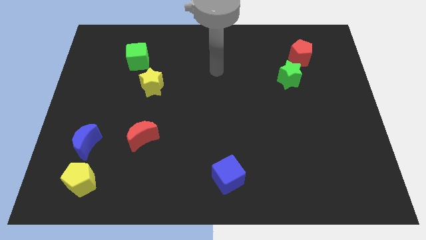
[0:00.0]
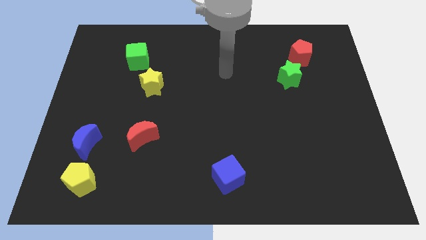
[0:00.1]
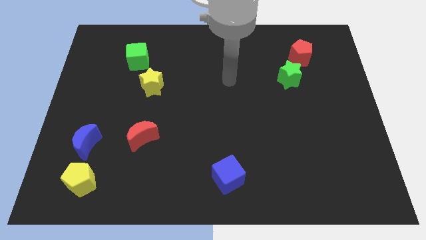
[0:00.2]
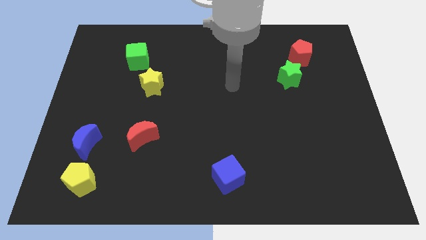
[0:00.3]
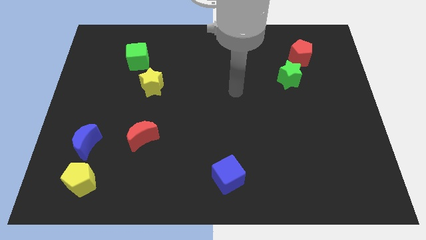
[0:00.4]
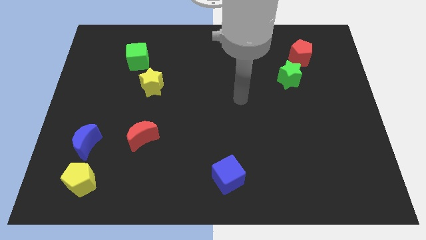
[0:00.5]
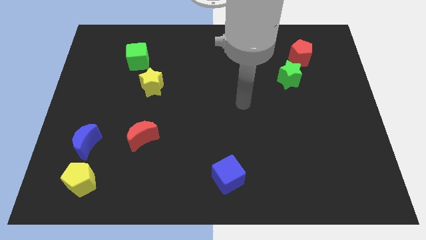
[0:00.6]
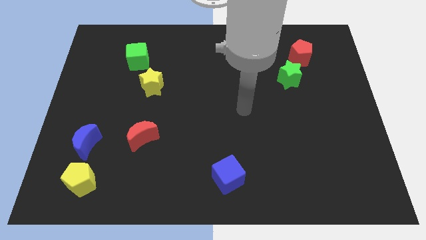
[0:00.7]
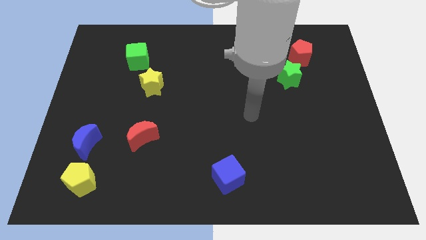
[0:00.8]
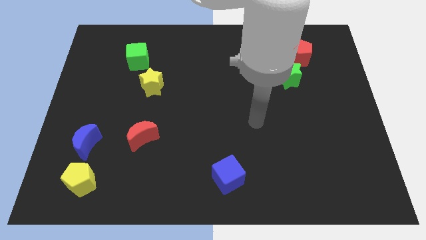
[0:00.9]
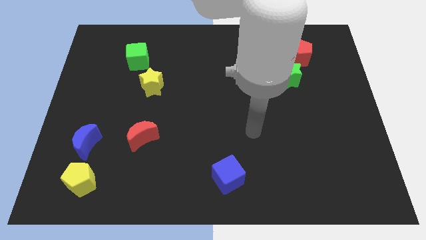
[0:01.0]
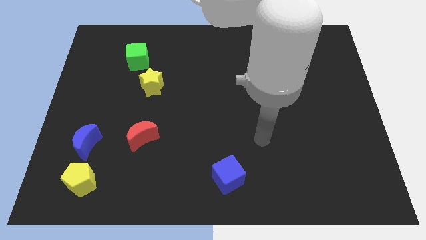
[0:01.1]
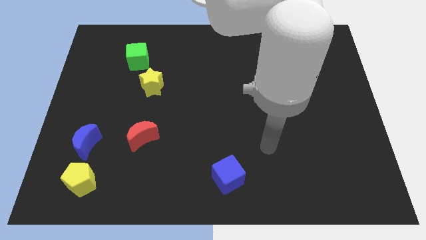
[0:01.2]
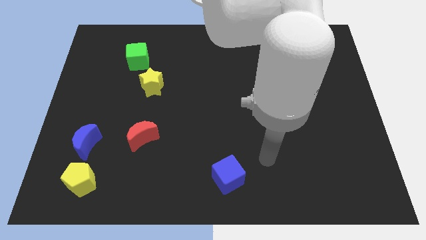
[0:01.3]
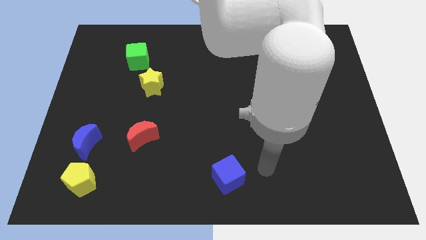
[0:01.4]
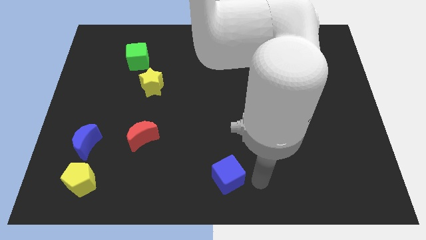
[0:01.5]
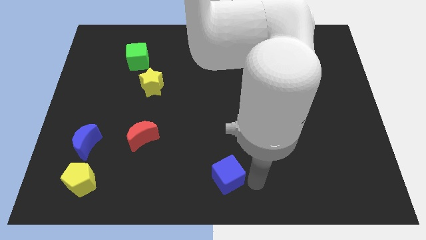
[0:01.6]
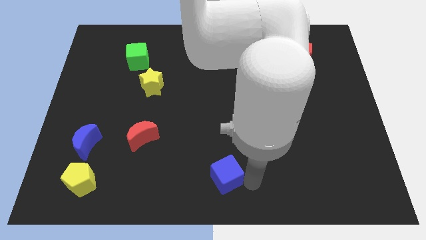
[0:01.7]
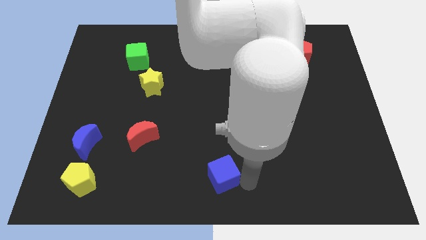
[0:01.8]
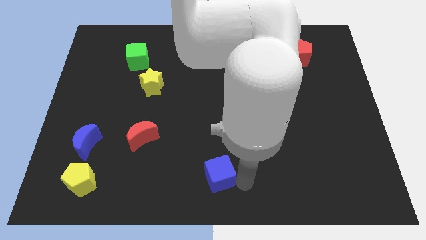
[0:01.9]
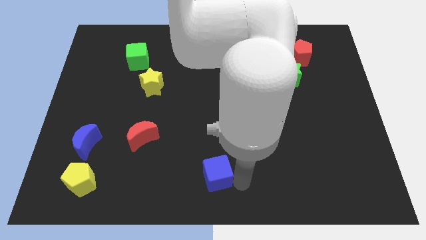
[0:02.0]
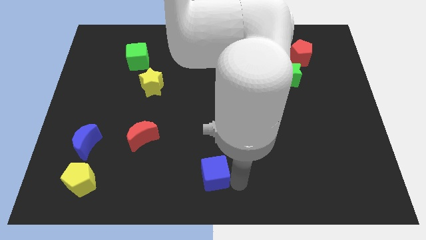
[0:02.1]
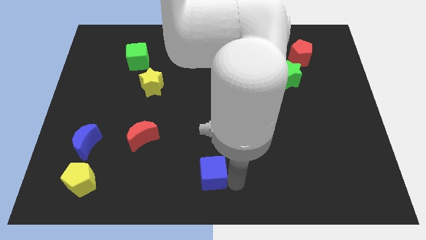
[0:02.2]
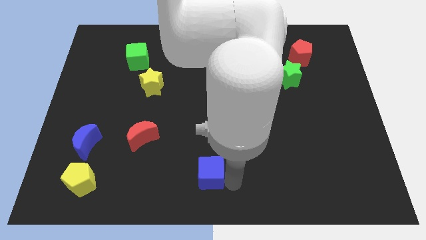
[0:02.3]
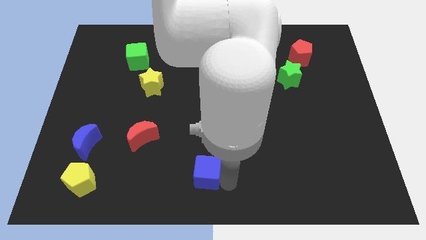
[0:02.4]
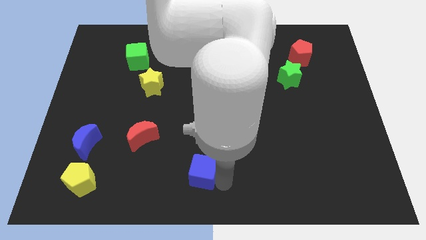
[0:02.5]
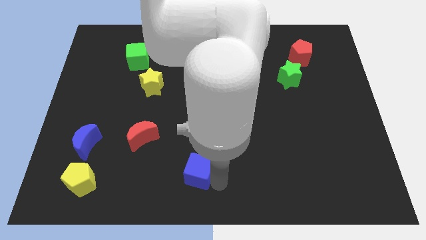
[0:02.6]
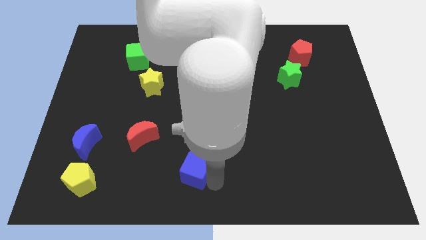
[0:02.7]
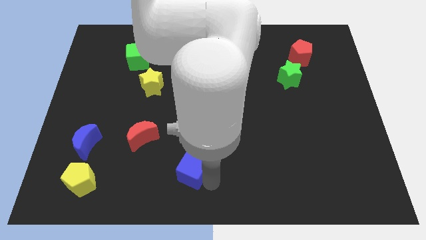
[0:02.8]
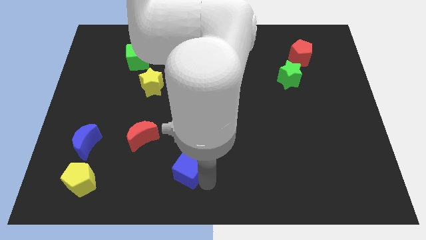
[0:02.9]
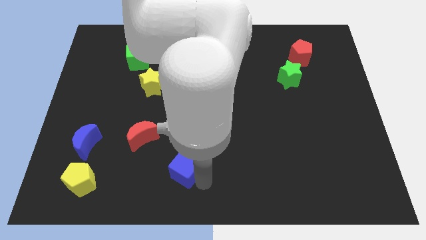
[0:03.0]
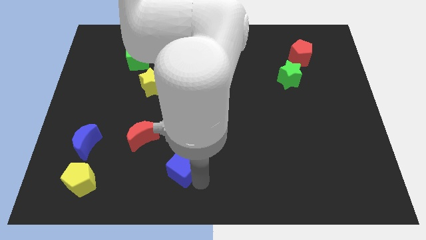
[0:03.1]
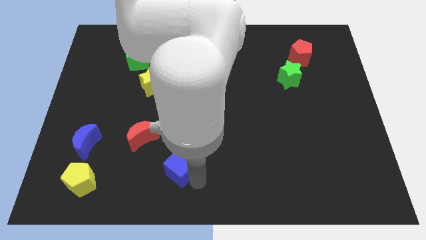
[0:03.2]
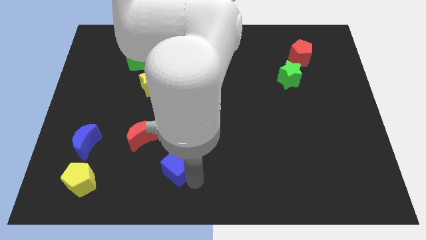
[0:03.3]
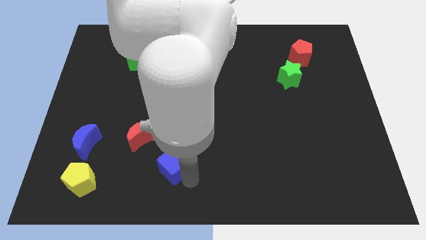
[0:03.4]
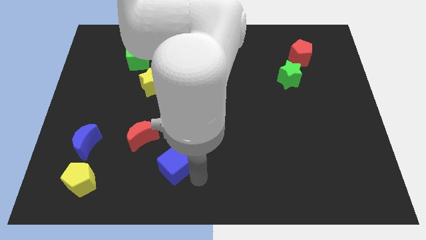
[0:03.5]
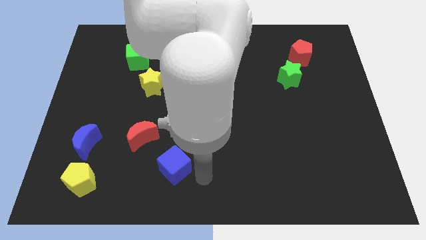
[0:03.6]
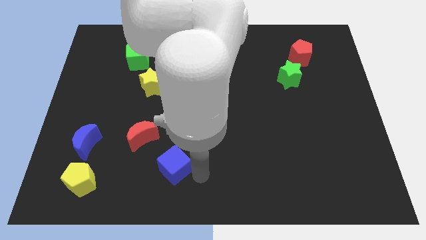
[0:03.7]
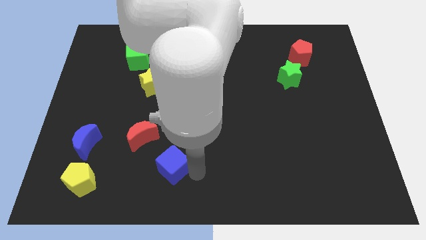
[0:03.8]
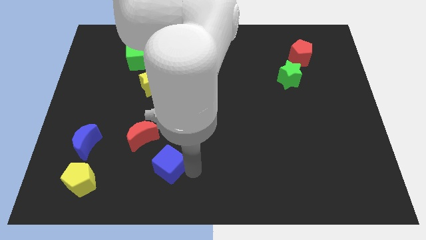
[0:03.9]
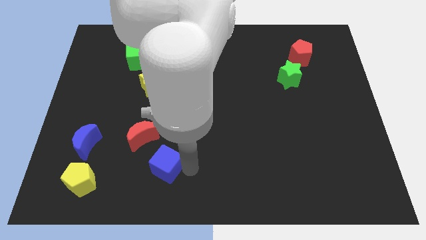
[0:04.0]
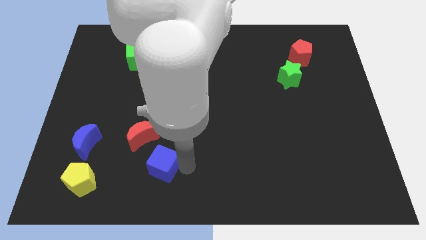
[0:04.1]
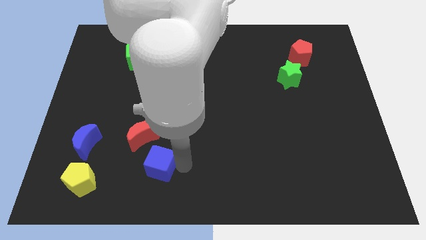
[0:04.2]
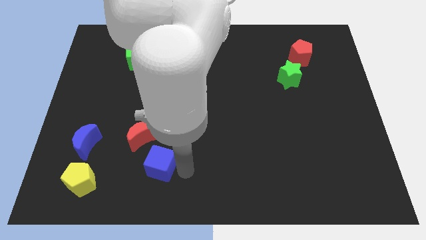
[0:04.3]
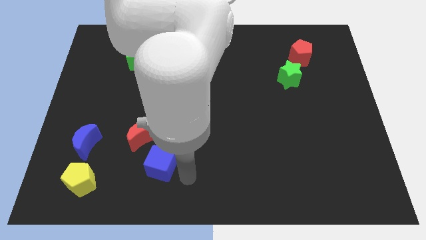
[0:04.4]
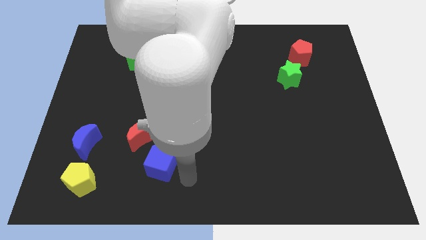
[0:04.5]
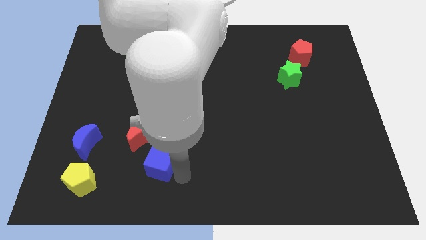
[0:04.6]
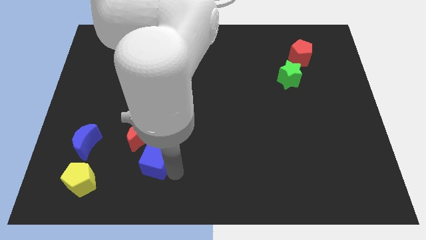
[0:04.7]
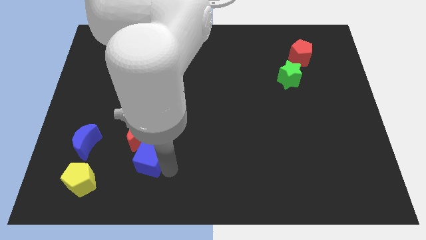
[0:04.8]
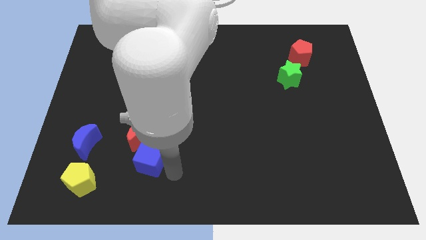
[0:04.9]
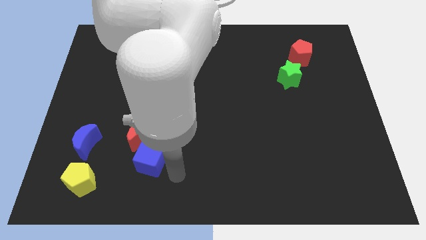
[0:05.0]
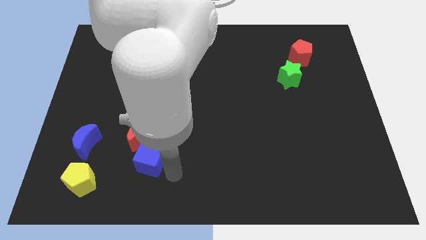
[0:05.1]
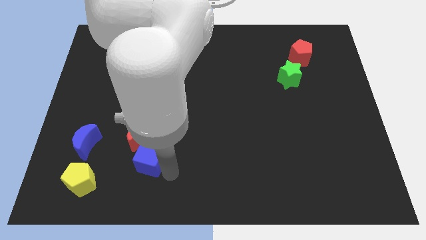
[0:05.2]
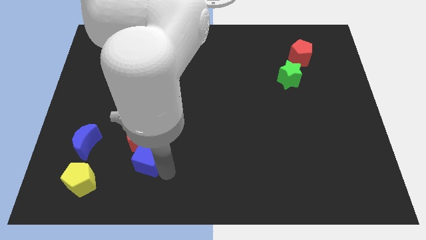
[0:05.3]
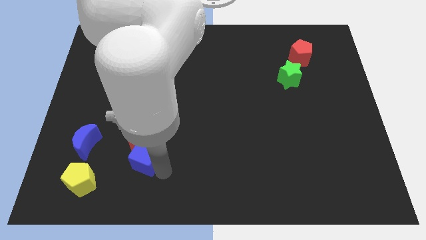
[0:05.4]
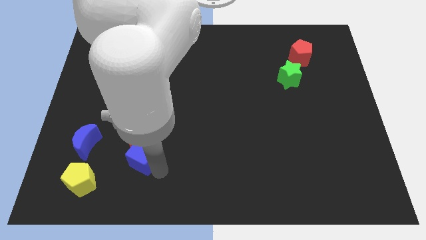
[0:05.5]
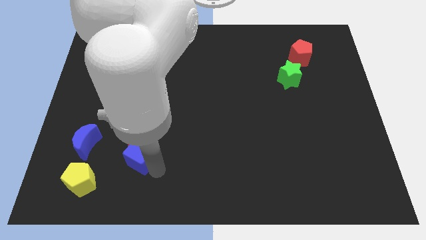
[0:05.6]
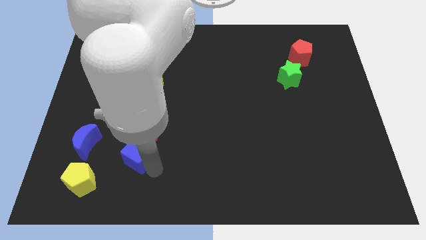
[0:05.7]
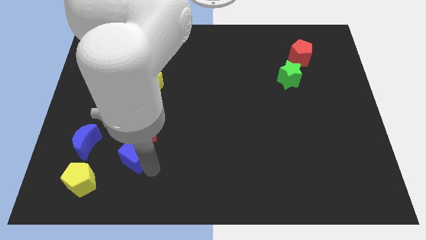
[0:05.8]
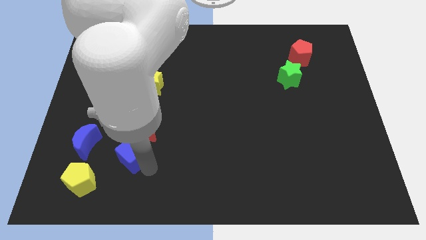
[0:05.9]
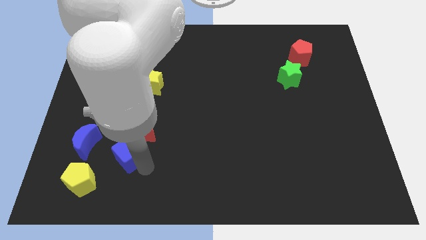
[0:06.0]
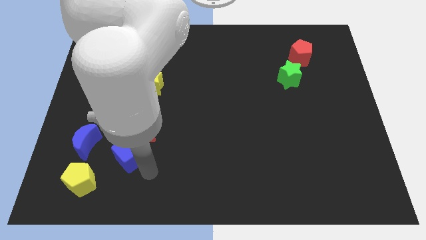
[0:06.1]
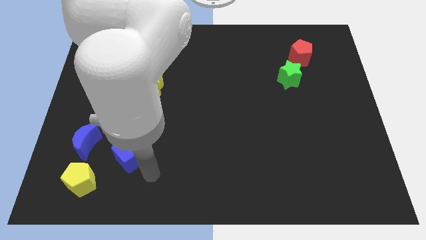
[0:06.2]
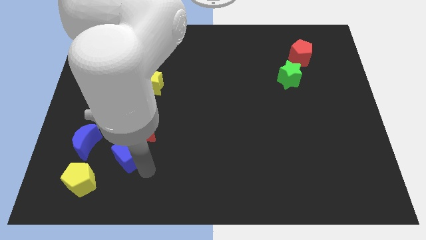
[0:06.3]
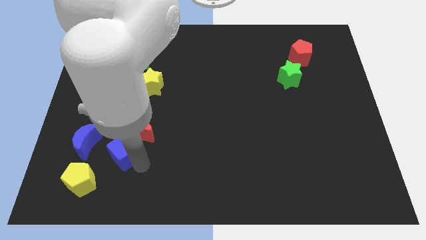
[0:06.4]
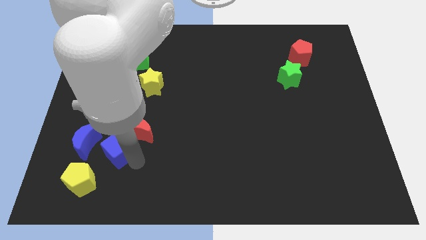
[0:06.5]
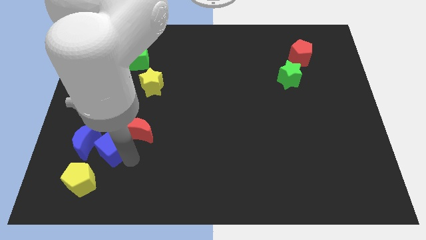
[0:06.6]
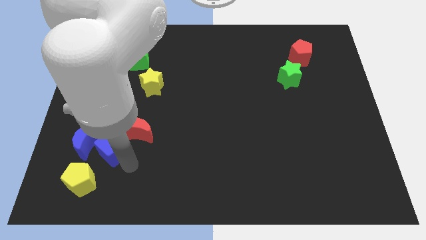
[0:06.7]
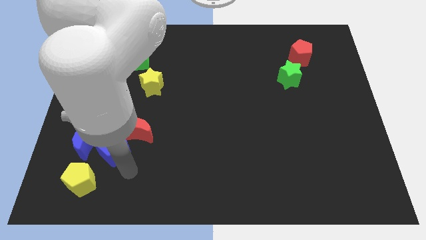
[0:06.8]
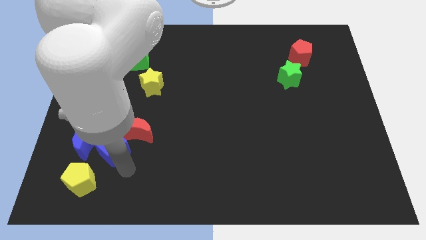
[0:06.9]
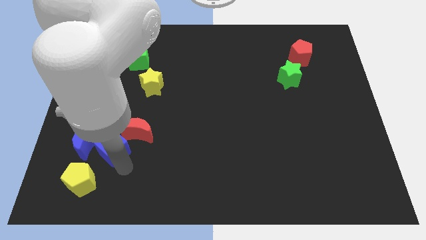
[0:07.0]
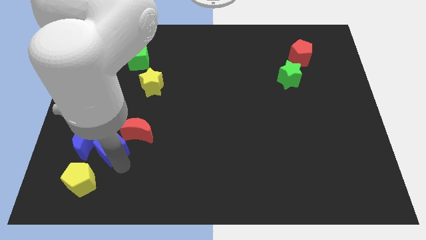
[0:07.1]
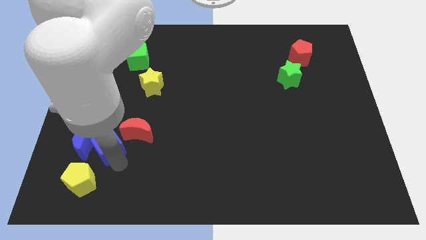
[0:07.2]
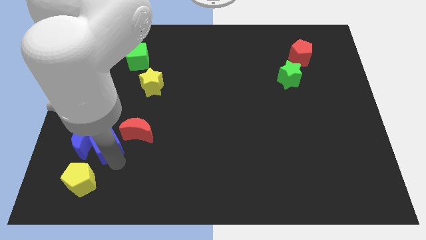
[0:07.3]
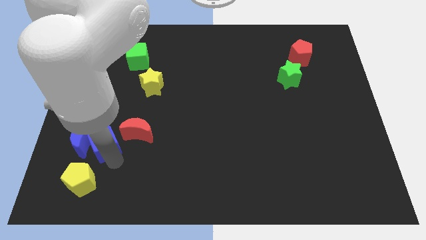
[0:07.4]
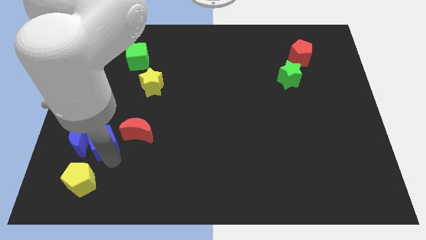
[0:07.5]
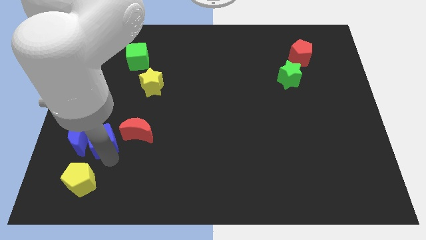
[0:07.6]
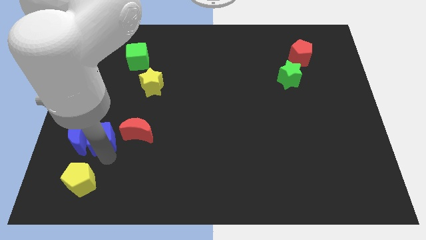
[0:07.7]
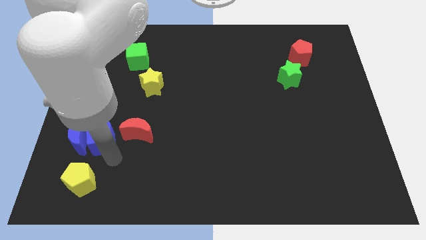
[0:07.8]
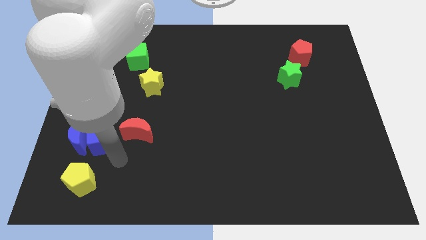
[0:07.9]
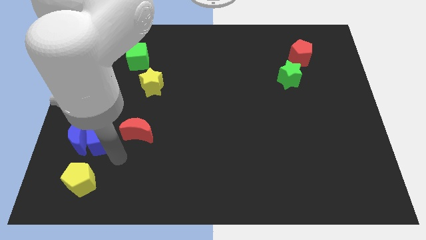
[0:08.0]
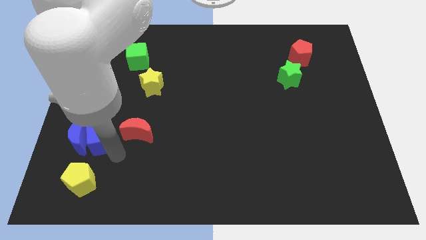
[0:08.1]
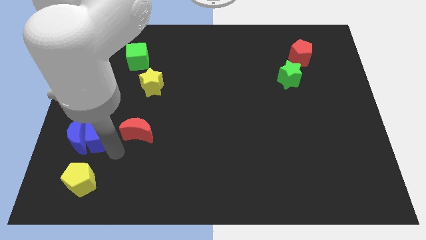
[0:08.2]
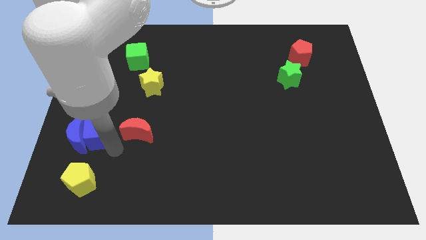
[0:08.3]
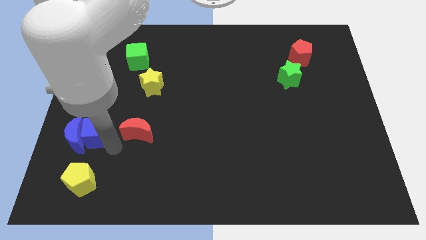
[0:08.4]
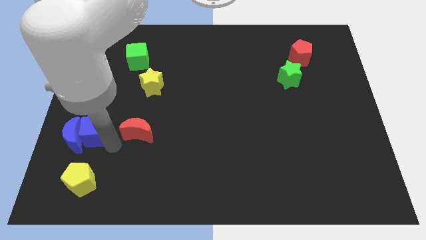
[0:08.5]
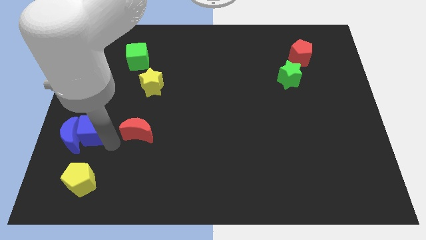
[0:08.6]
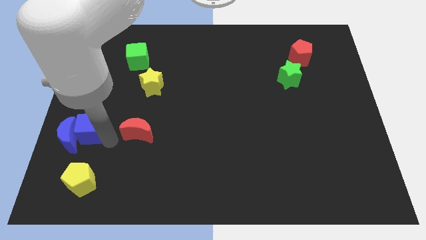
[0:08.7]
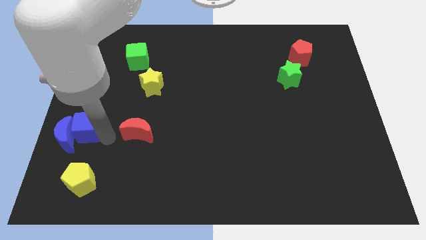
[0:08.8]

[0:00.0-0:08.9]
push the blue cube to the left side of the board
